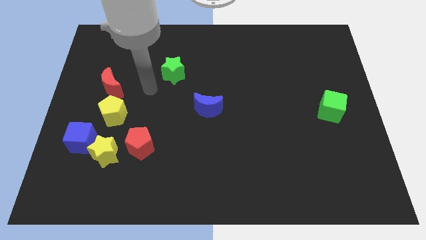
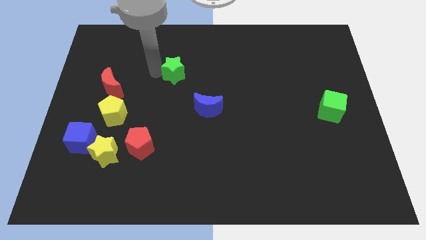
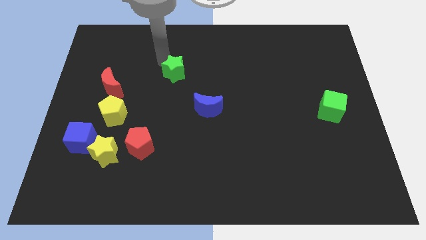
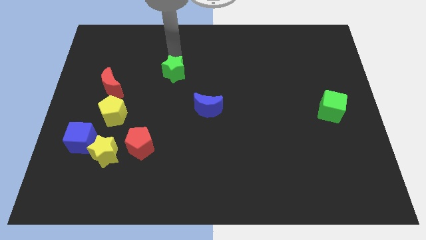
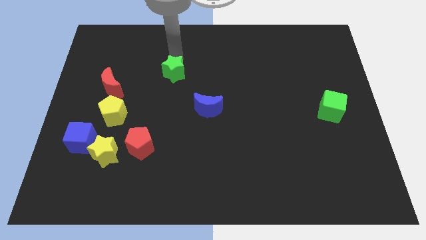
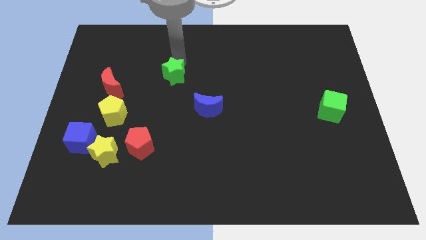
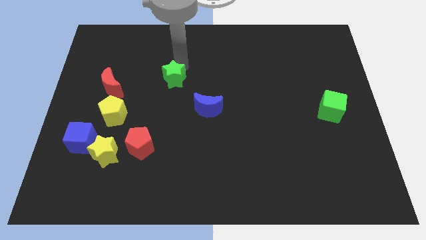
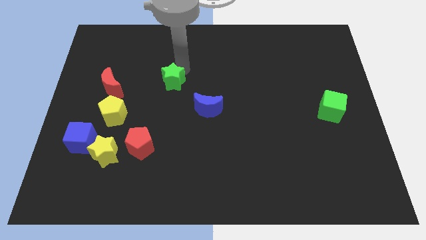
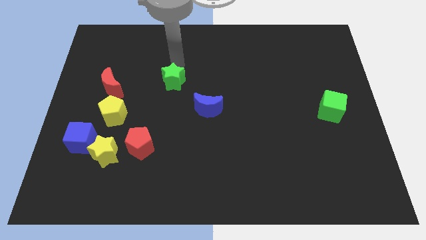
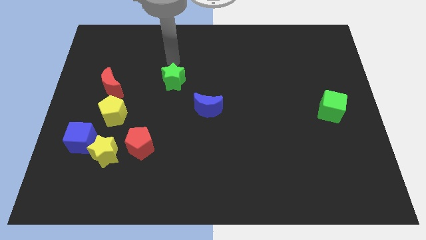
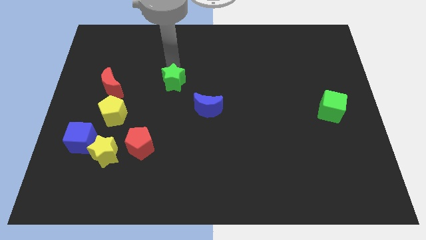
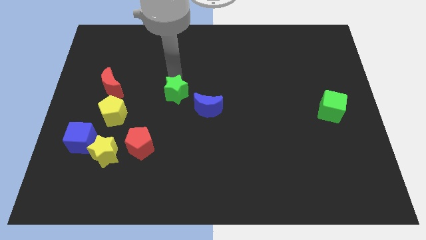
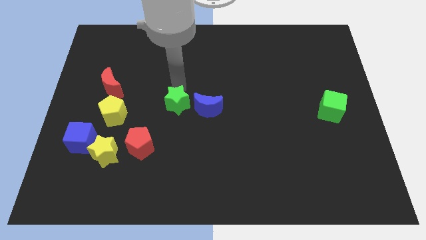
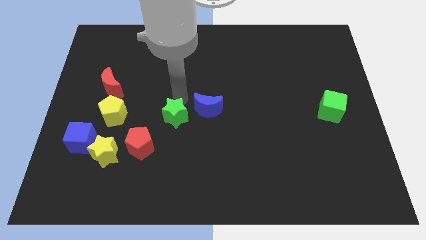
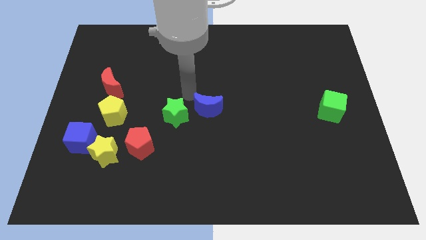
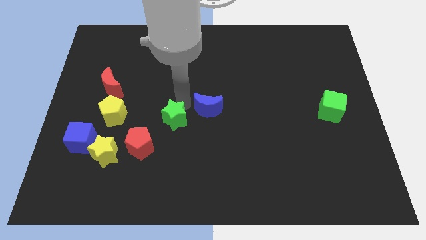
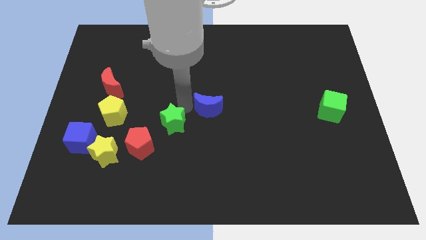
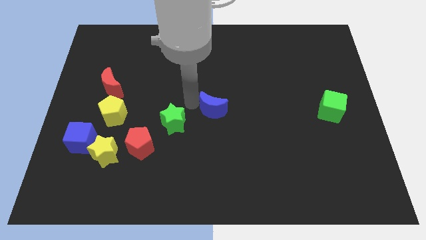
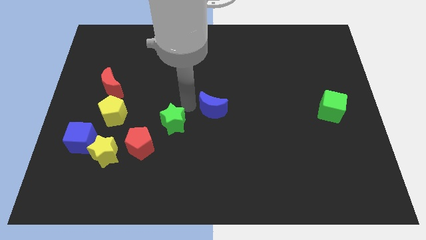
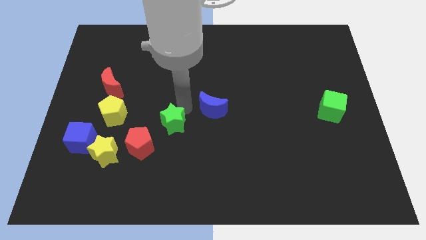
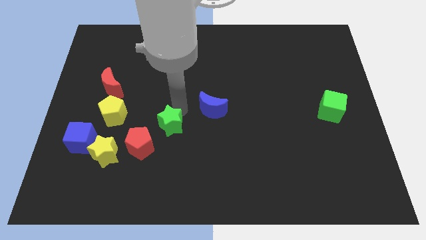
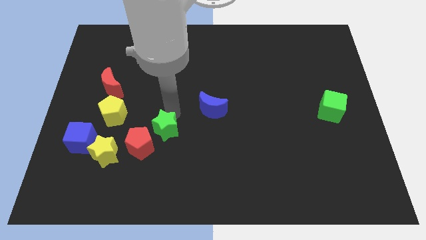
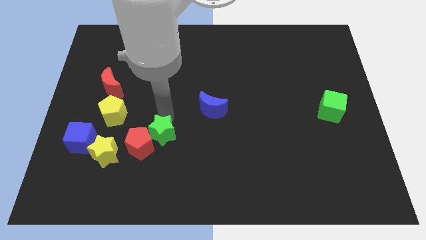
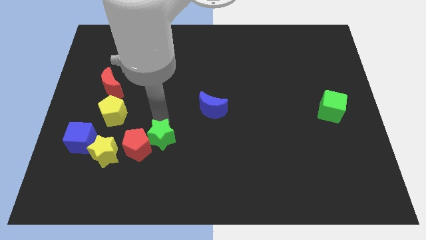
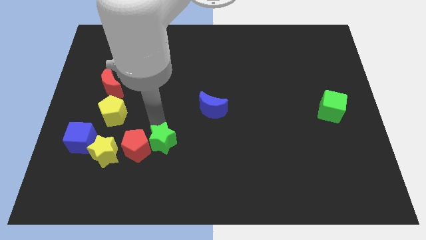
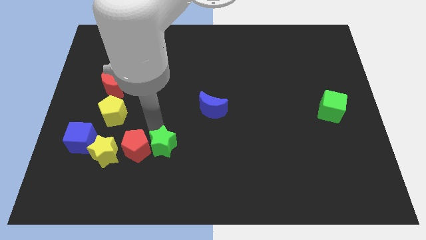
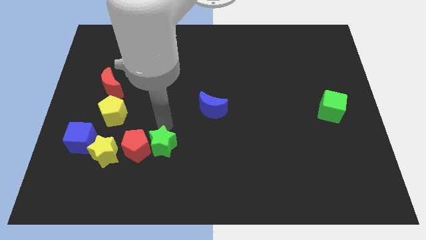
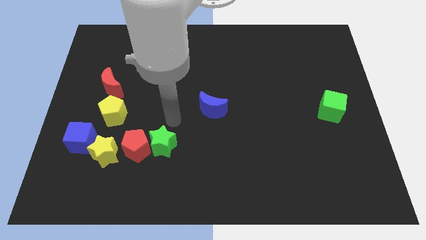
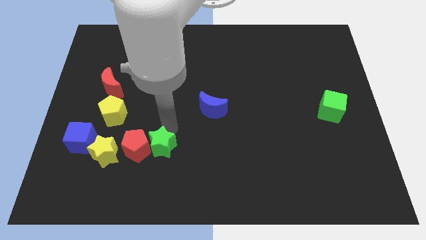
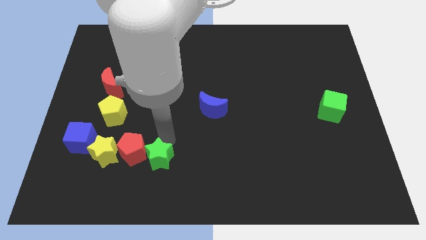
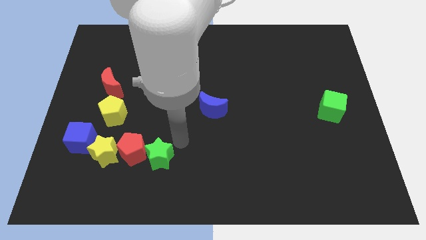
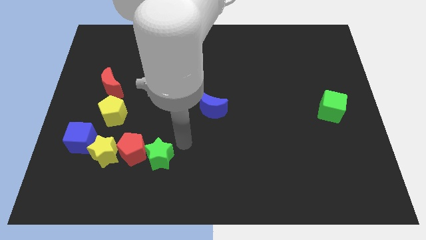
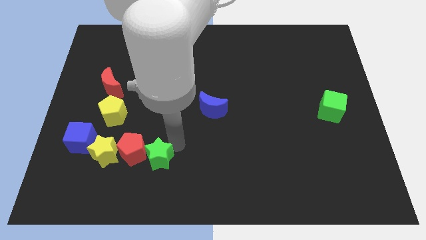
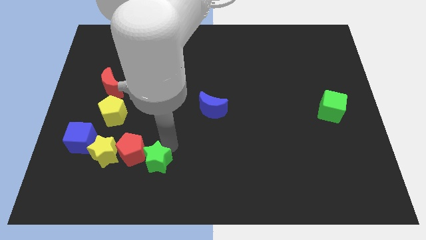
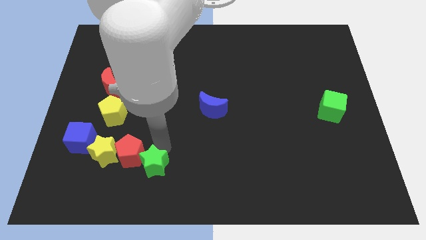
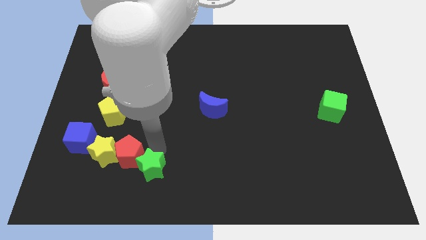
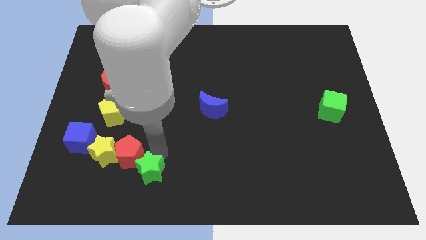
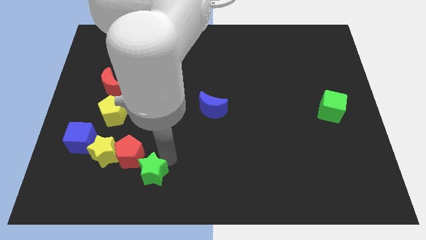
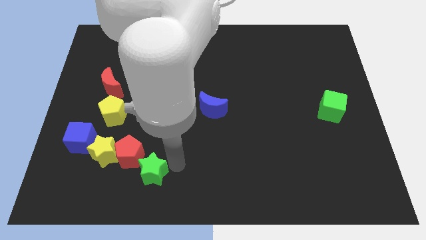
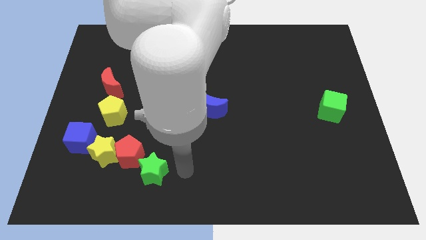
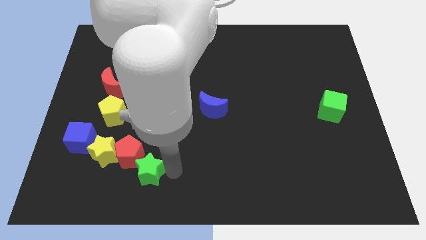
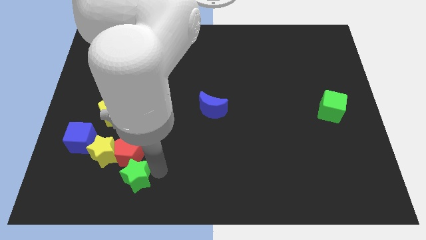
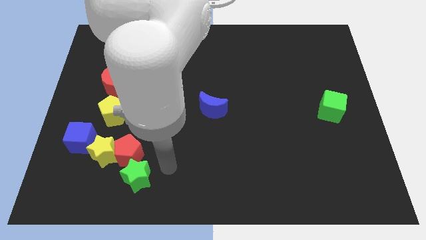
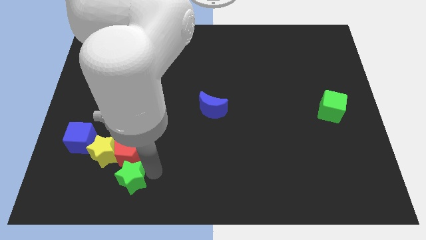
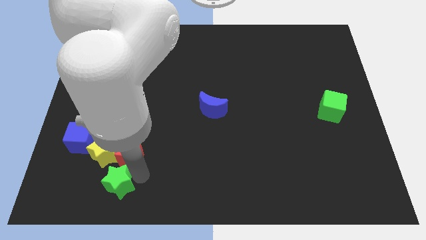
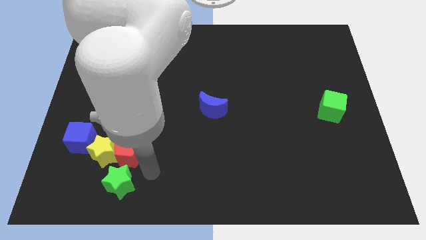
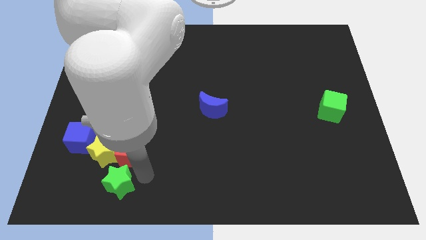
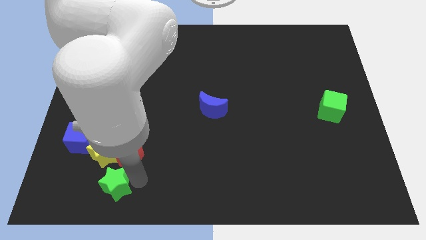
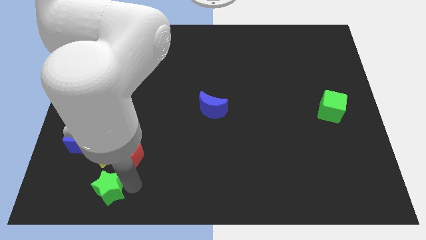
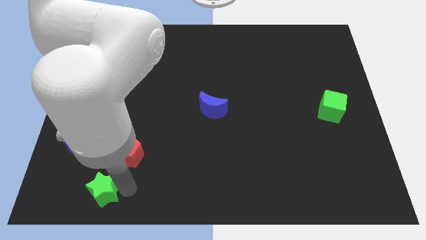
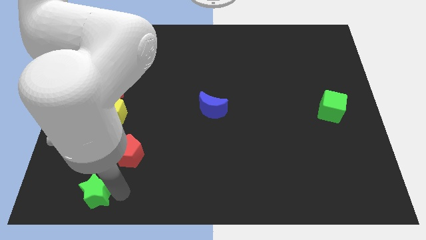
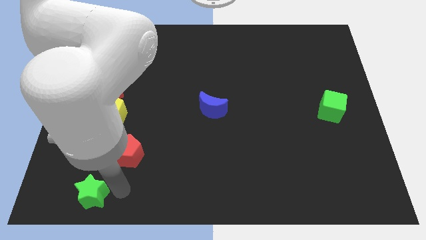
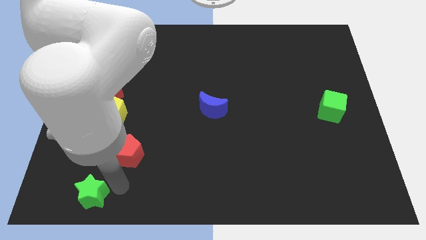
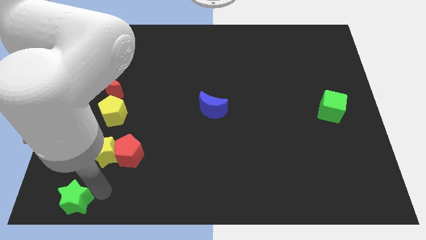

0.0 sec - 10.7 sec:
slide the green star to the lower left corner

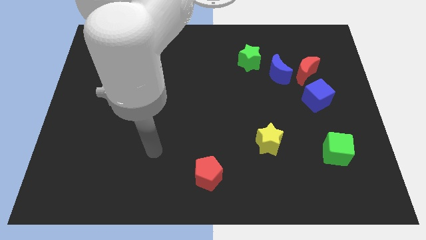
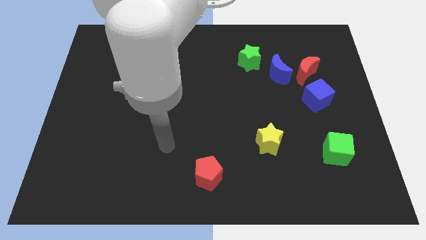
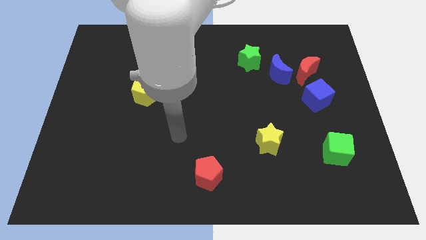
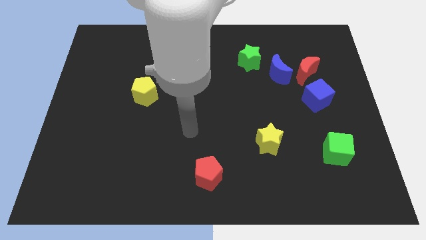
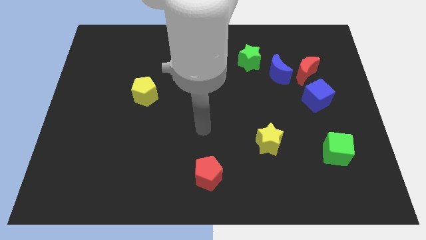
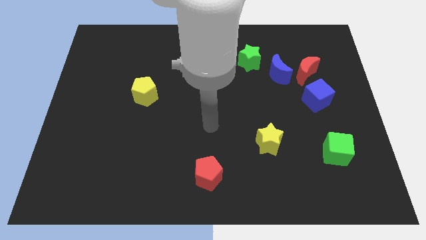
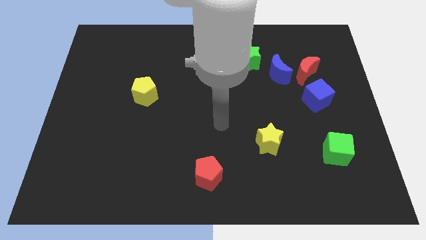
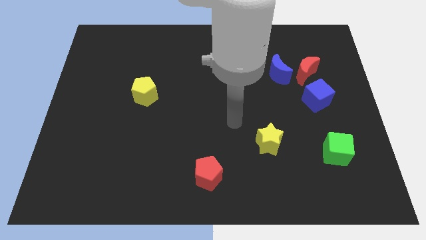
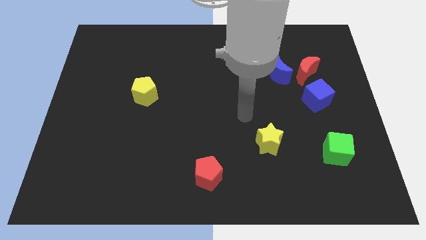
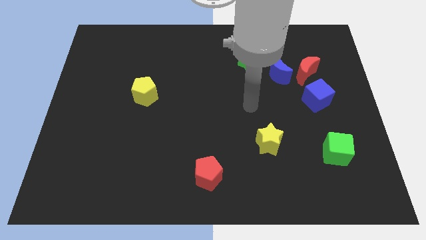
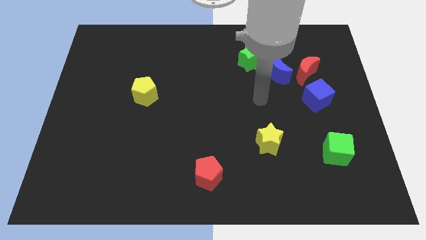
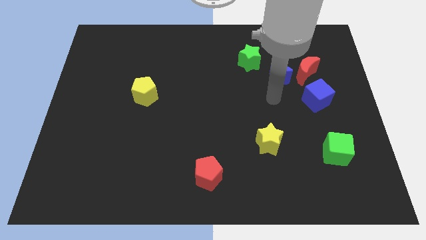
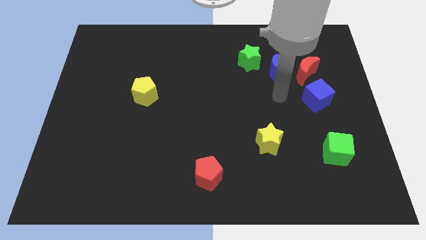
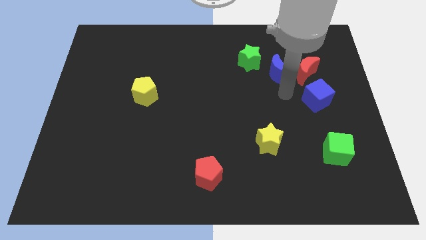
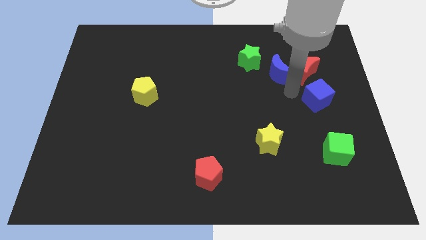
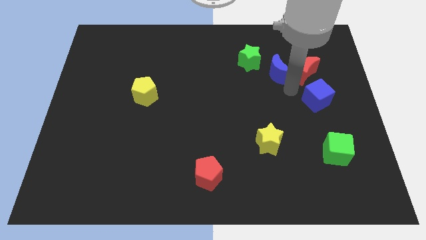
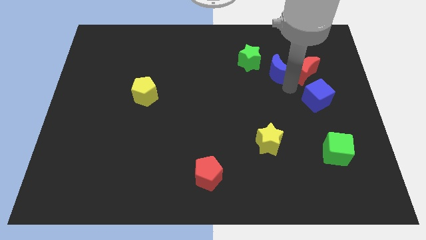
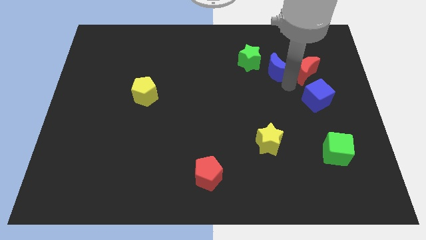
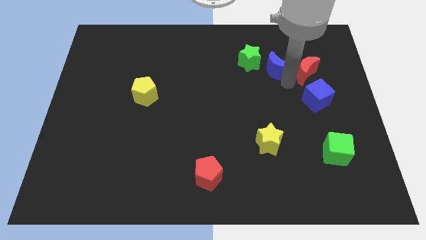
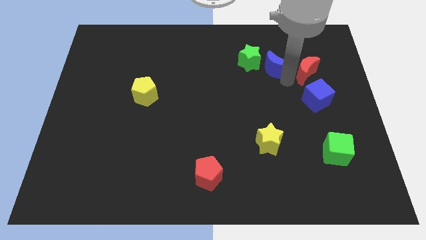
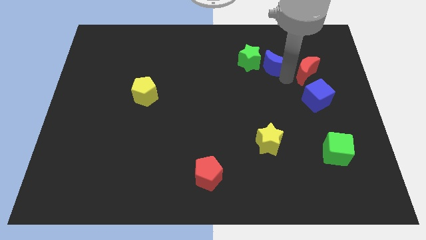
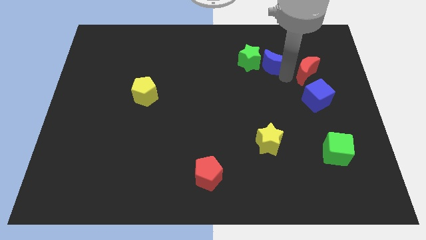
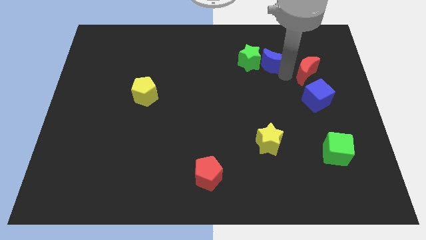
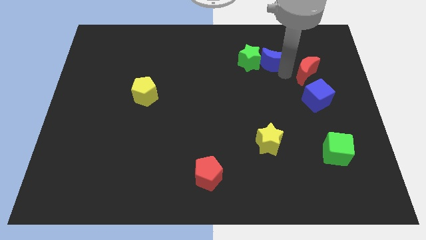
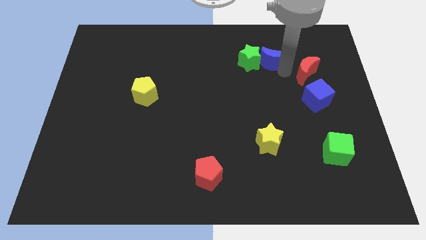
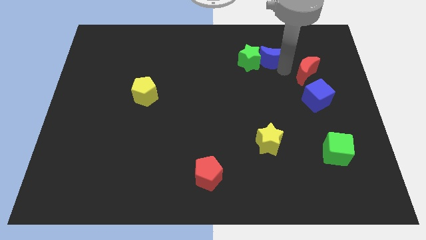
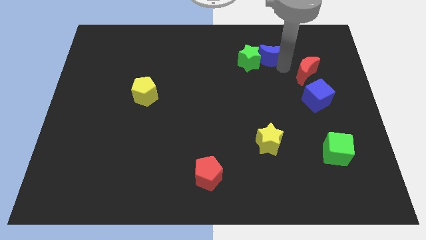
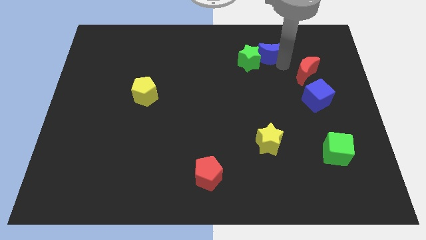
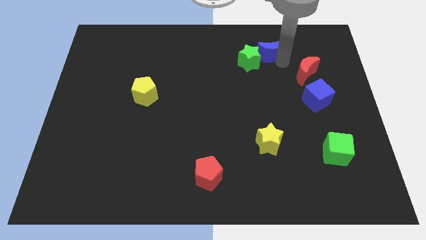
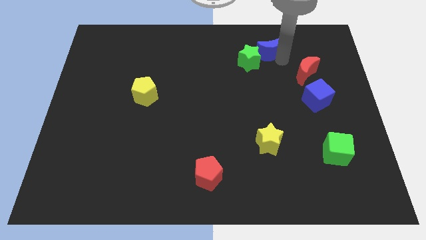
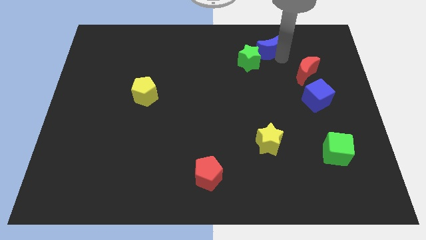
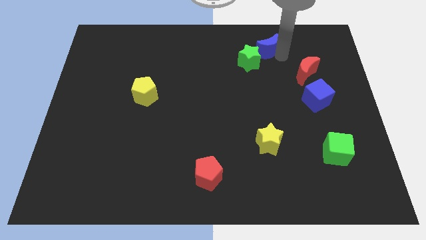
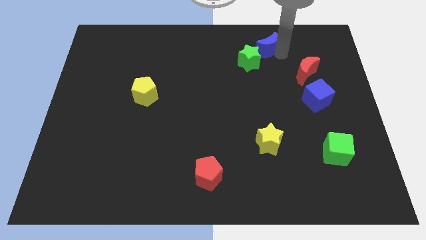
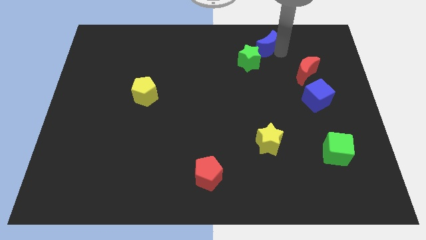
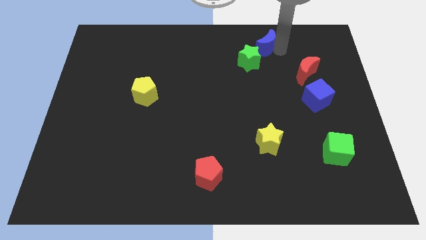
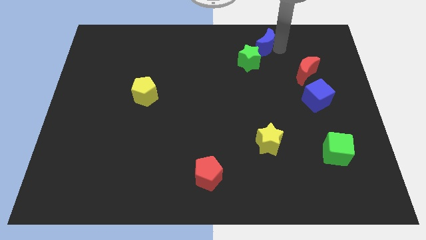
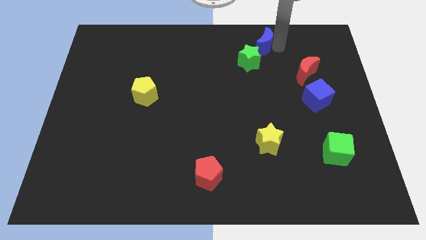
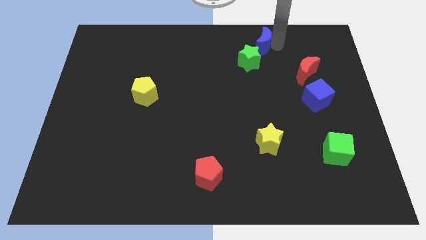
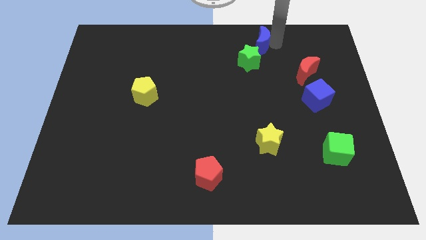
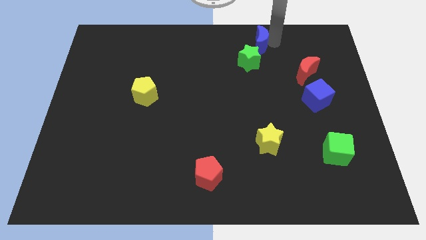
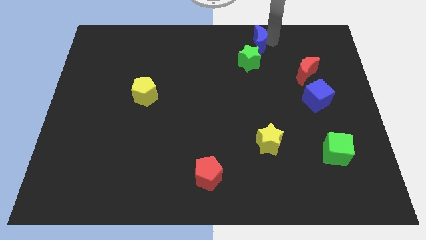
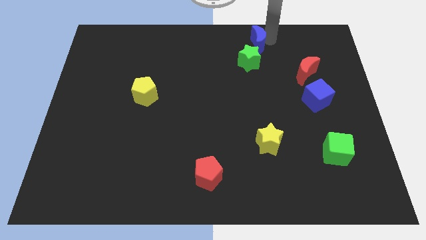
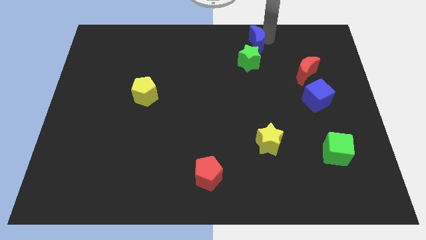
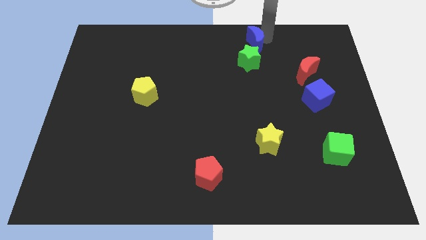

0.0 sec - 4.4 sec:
slide the blue moon to the top
